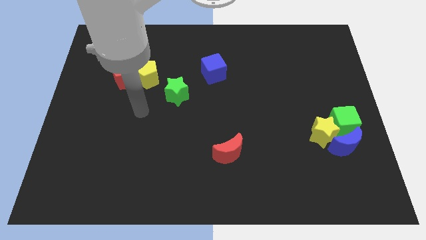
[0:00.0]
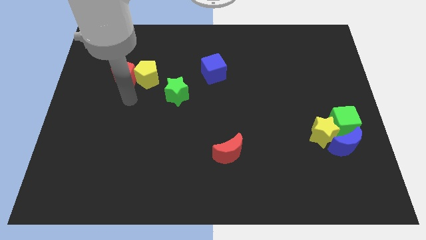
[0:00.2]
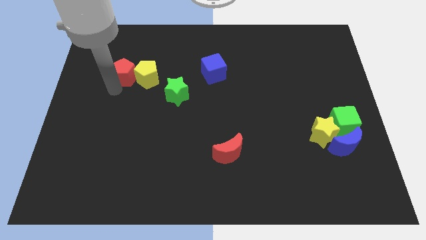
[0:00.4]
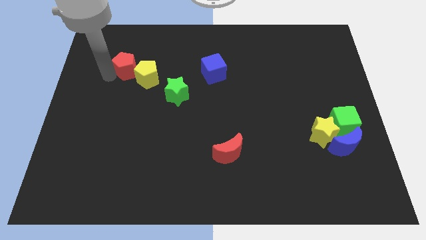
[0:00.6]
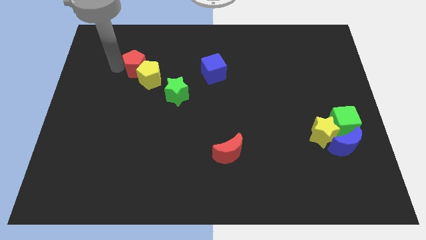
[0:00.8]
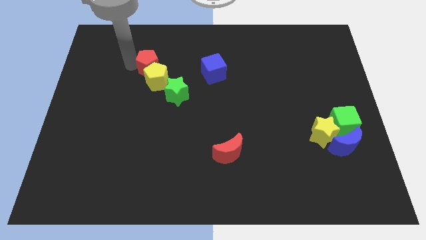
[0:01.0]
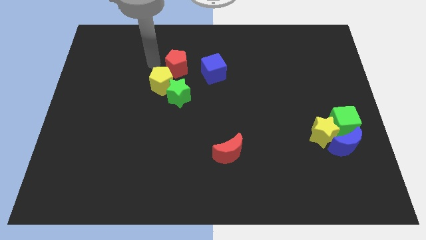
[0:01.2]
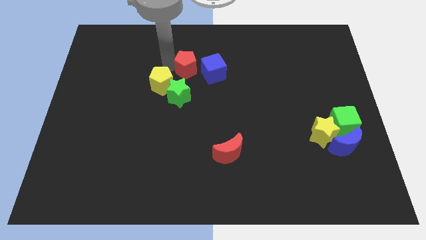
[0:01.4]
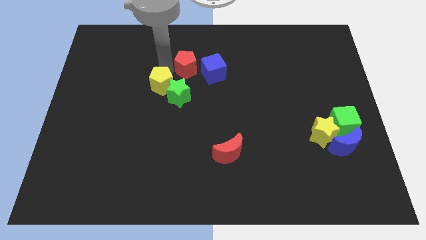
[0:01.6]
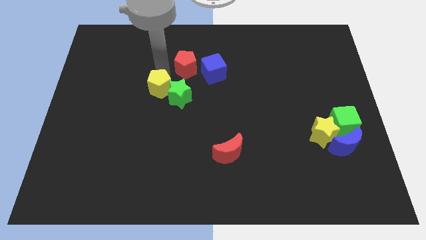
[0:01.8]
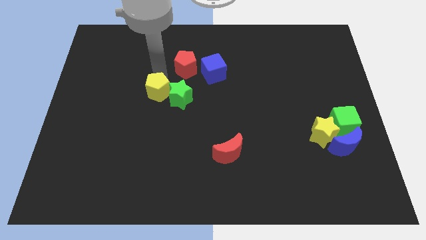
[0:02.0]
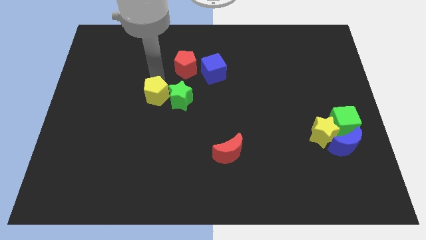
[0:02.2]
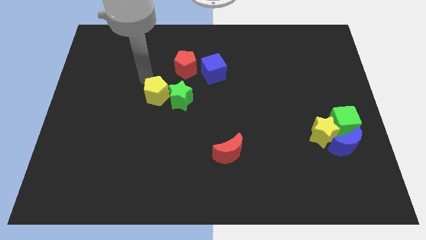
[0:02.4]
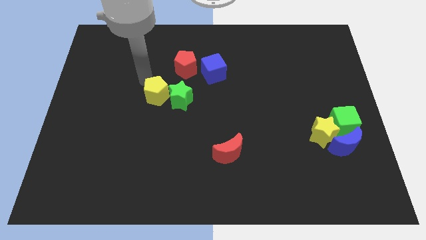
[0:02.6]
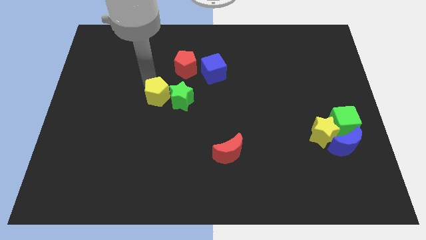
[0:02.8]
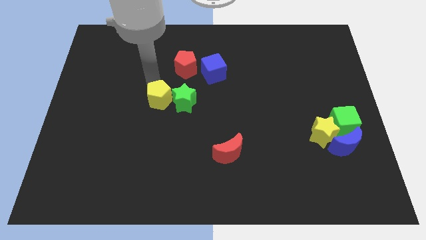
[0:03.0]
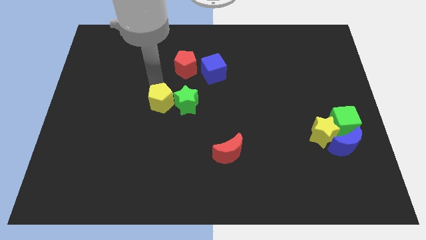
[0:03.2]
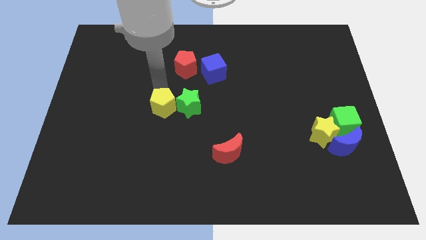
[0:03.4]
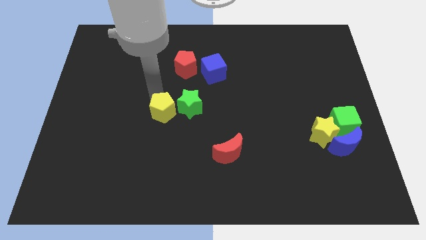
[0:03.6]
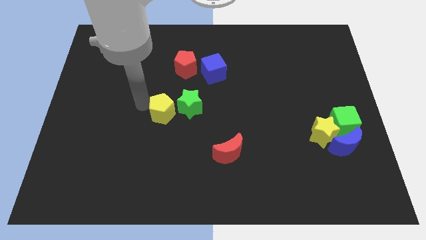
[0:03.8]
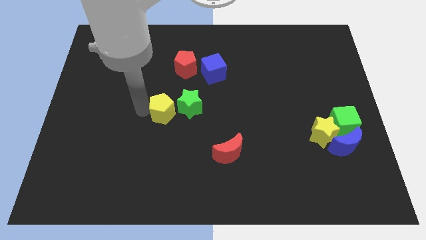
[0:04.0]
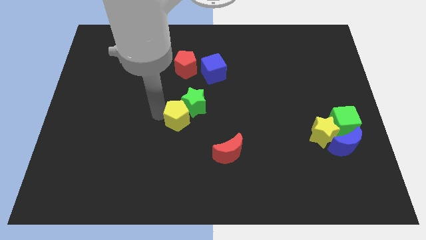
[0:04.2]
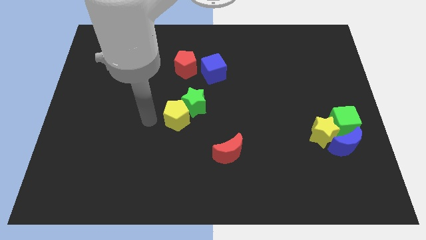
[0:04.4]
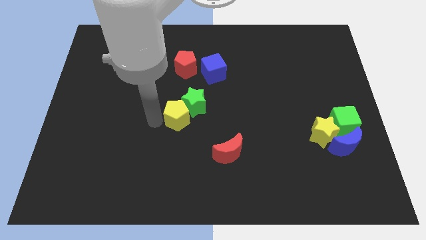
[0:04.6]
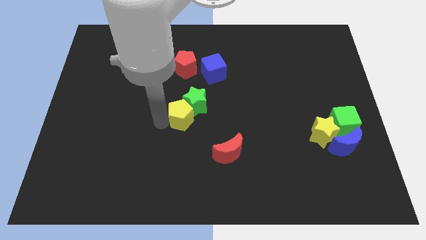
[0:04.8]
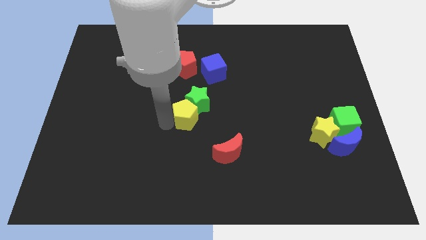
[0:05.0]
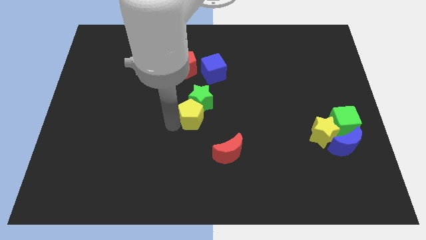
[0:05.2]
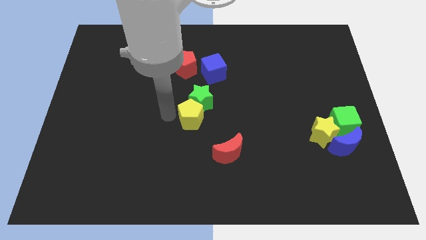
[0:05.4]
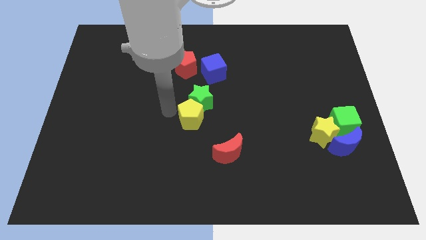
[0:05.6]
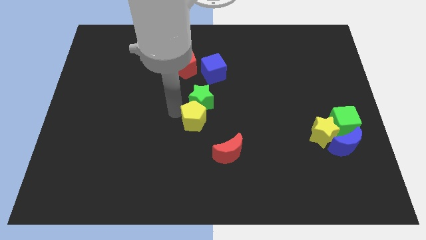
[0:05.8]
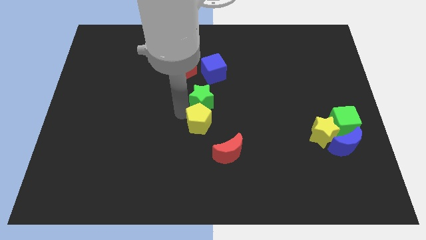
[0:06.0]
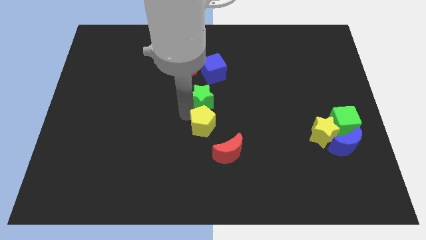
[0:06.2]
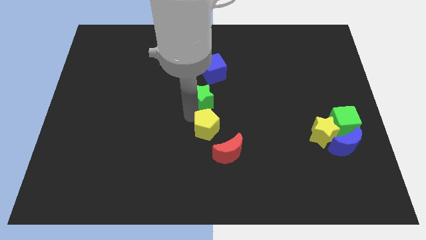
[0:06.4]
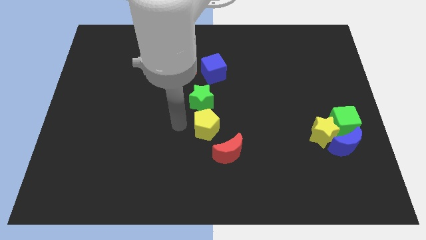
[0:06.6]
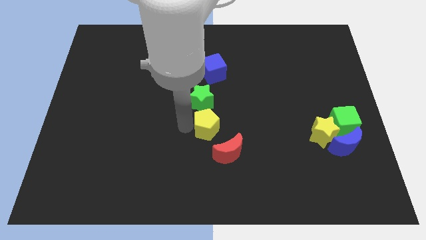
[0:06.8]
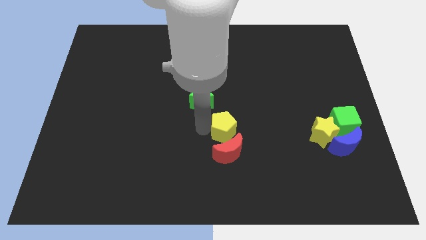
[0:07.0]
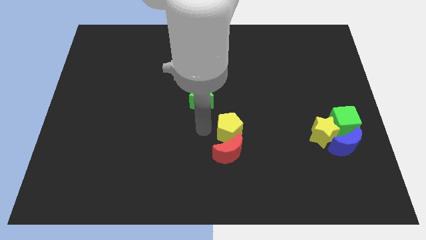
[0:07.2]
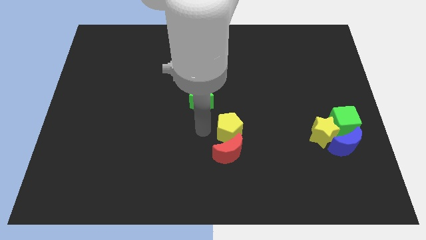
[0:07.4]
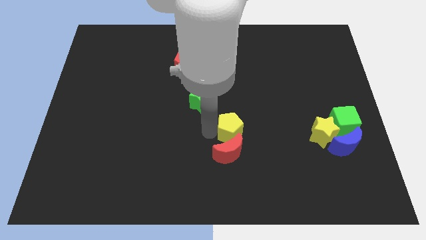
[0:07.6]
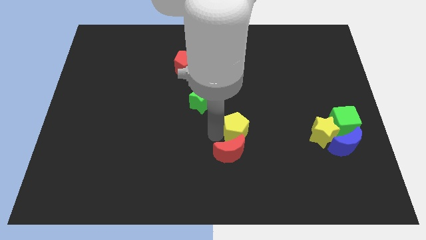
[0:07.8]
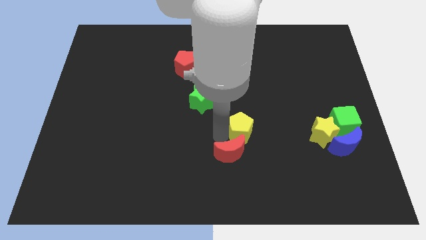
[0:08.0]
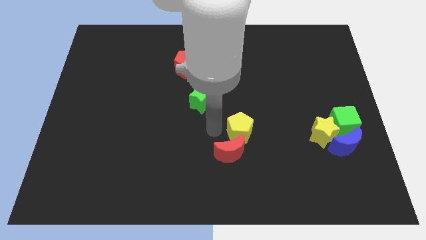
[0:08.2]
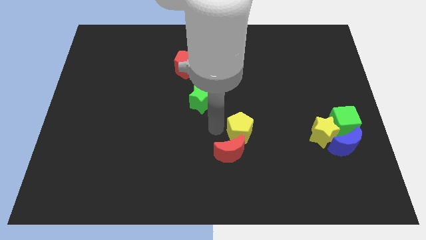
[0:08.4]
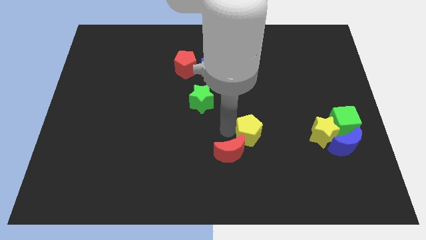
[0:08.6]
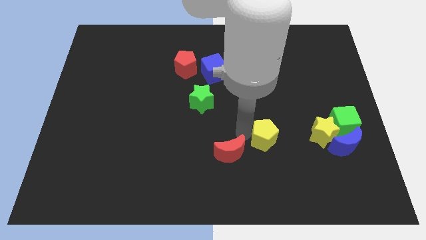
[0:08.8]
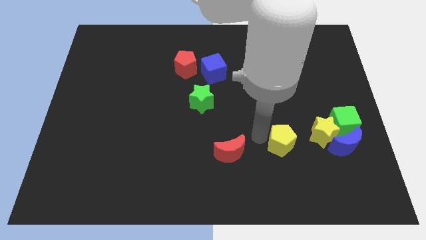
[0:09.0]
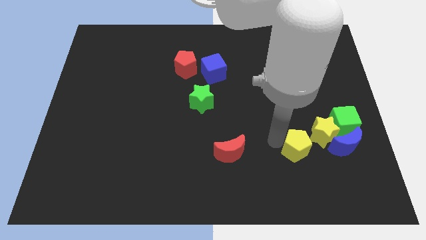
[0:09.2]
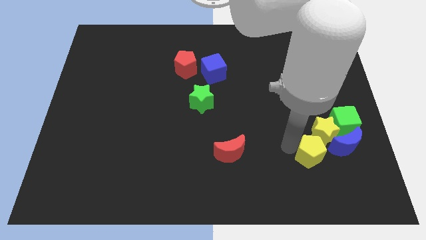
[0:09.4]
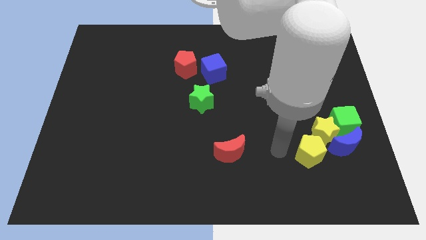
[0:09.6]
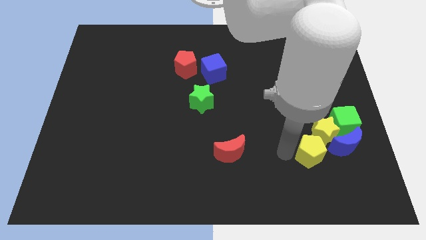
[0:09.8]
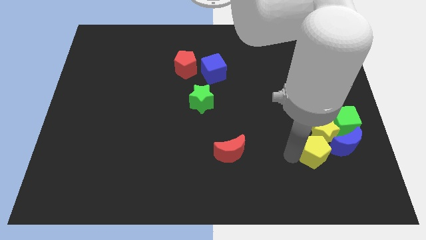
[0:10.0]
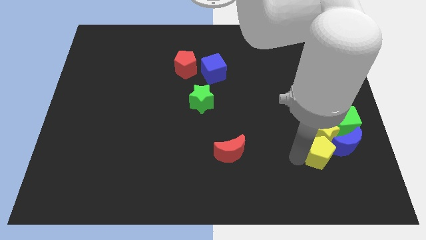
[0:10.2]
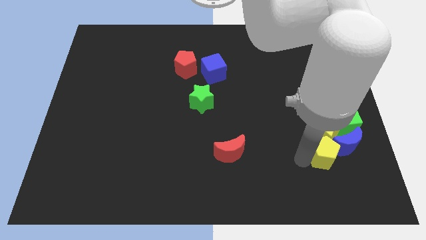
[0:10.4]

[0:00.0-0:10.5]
push the yellow pentagon towards the blue moon

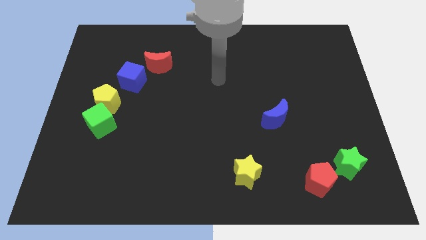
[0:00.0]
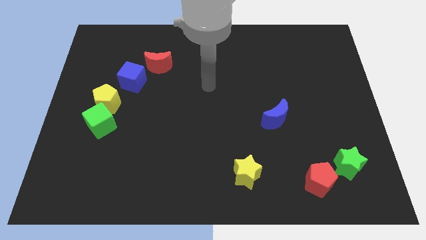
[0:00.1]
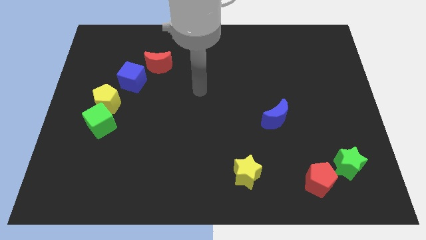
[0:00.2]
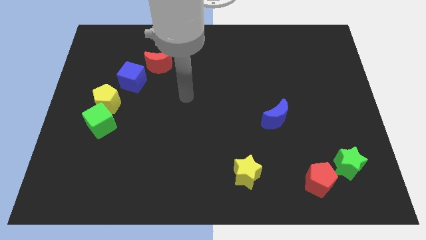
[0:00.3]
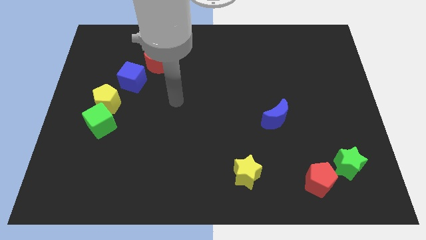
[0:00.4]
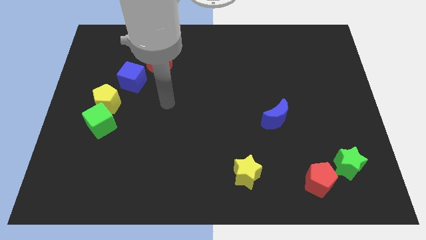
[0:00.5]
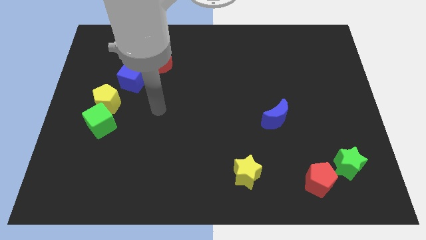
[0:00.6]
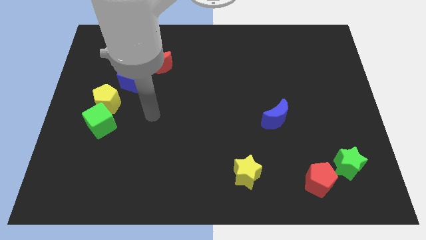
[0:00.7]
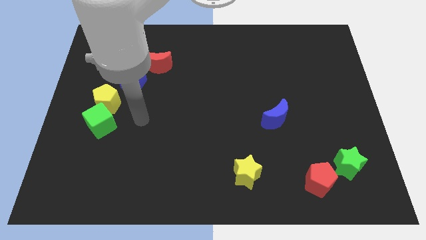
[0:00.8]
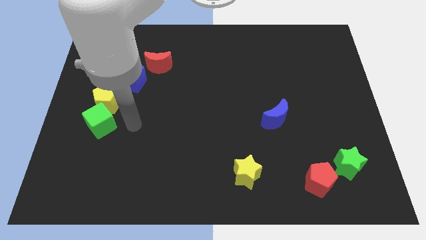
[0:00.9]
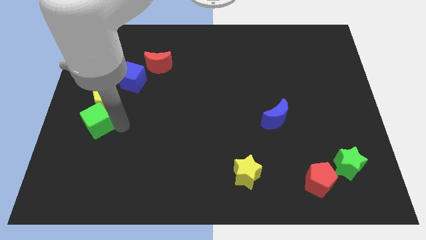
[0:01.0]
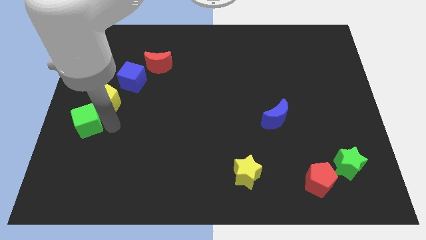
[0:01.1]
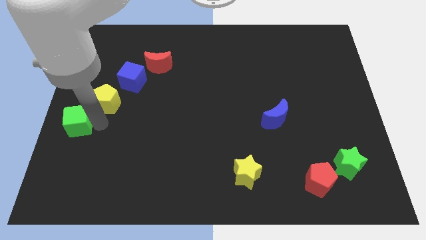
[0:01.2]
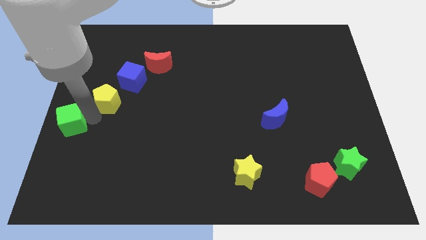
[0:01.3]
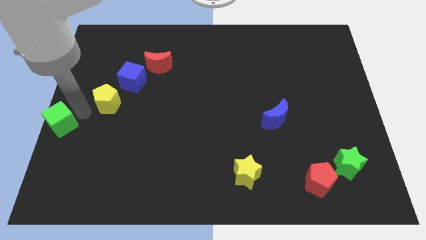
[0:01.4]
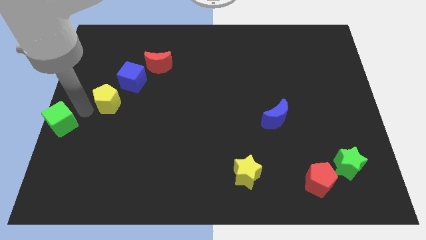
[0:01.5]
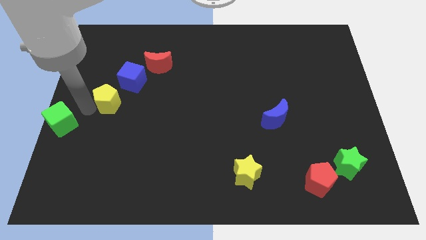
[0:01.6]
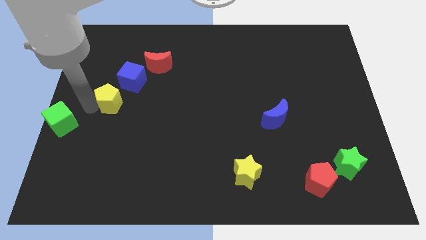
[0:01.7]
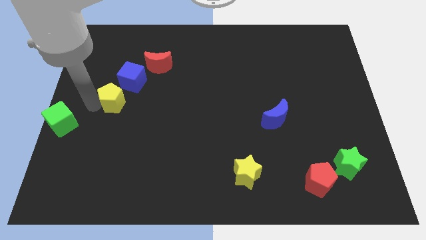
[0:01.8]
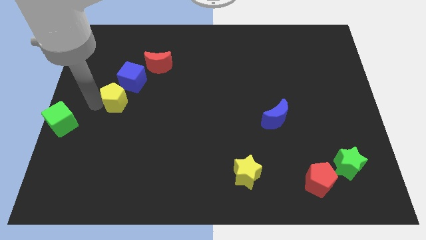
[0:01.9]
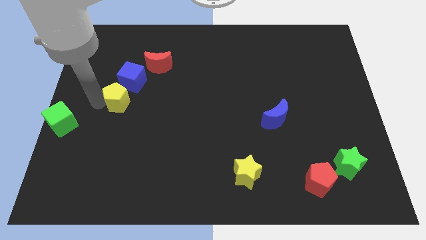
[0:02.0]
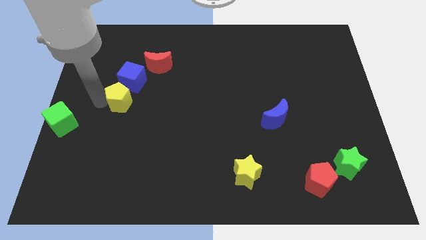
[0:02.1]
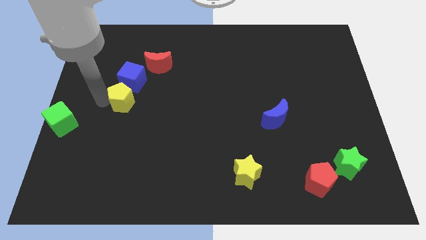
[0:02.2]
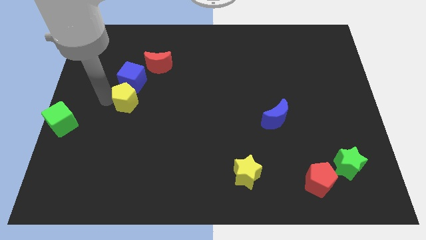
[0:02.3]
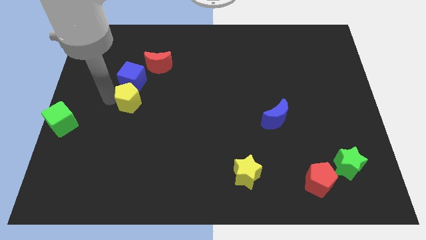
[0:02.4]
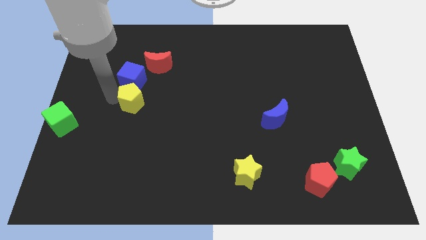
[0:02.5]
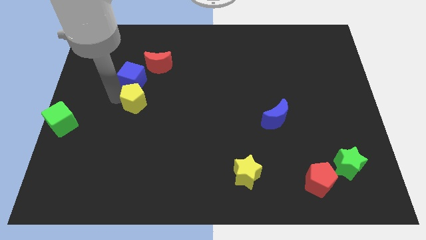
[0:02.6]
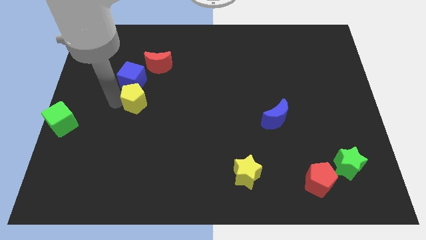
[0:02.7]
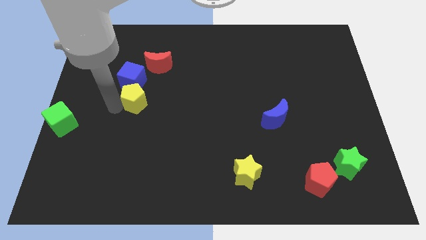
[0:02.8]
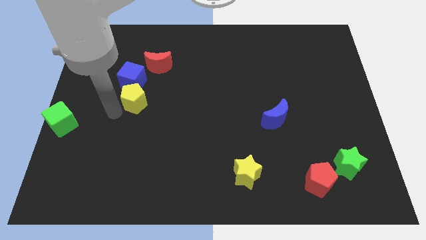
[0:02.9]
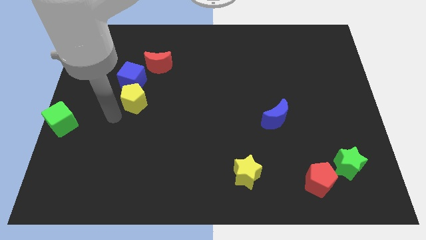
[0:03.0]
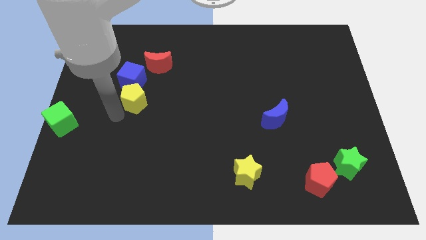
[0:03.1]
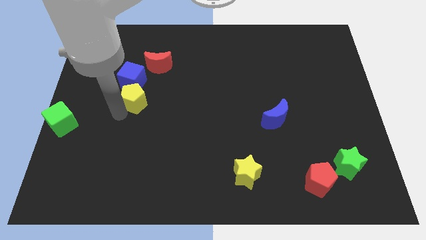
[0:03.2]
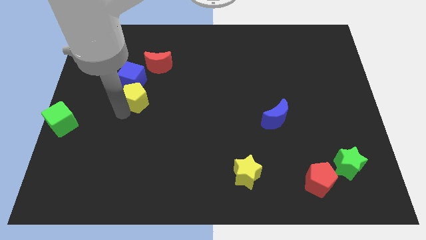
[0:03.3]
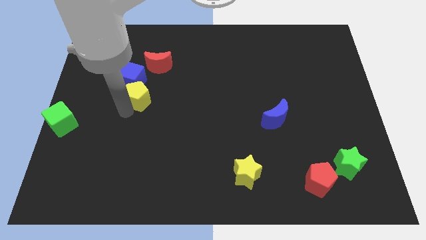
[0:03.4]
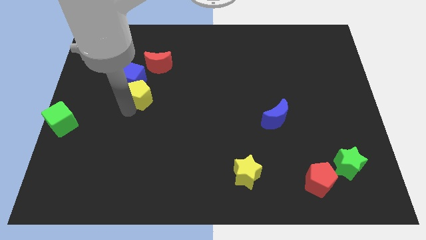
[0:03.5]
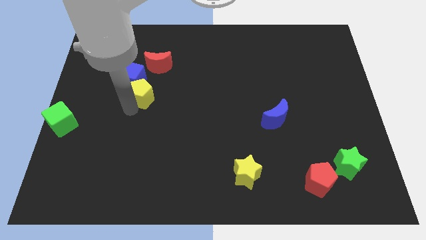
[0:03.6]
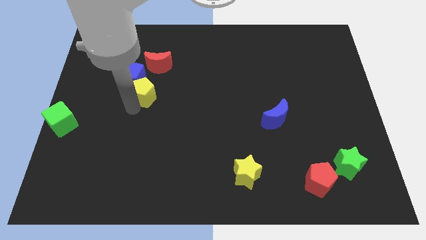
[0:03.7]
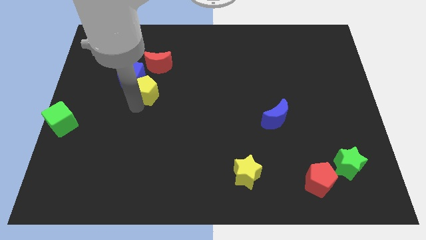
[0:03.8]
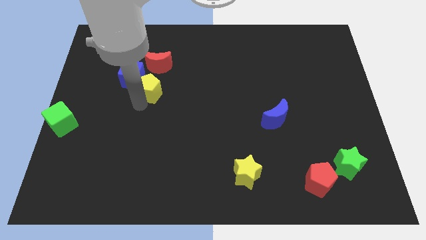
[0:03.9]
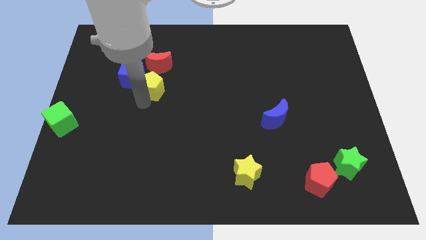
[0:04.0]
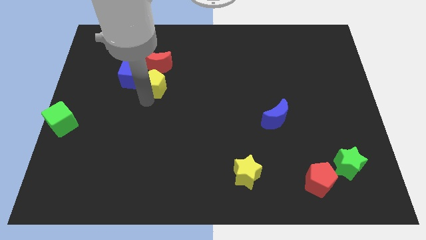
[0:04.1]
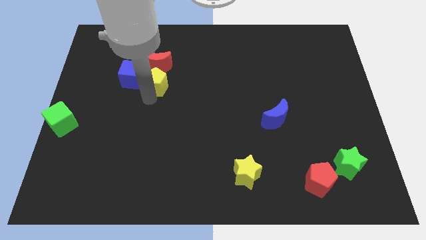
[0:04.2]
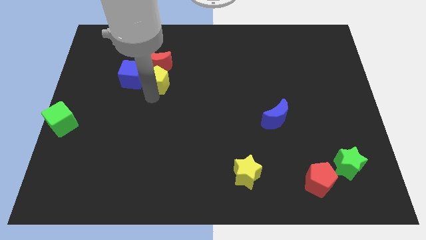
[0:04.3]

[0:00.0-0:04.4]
slide the yellow pentagon close to the red moon
